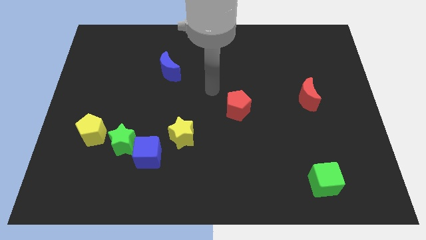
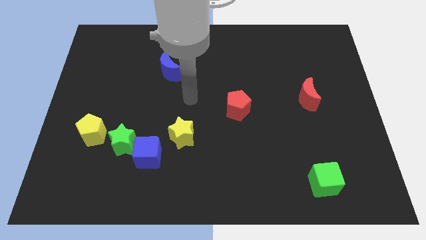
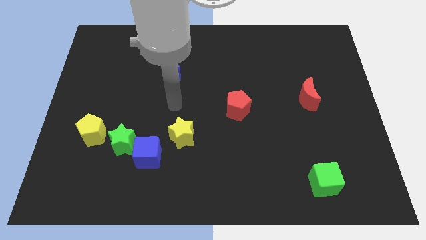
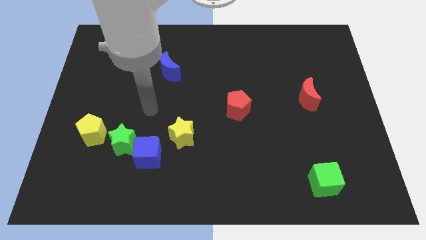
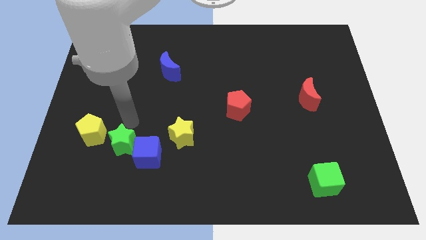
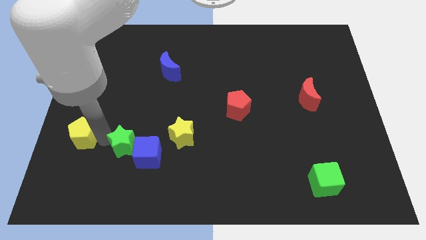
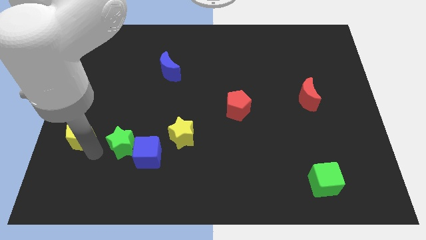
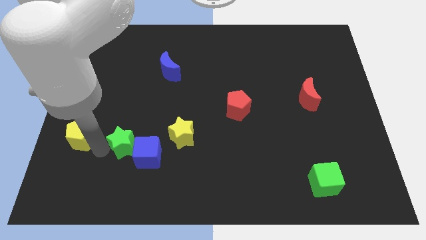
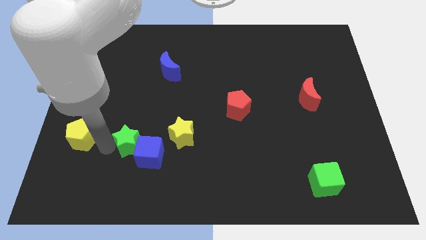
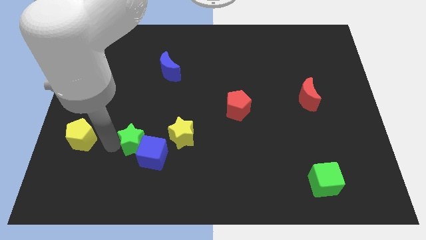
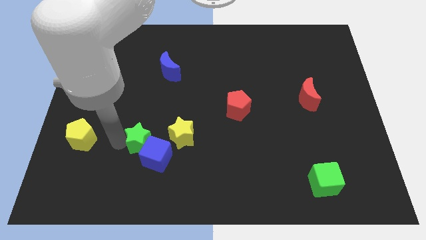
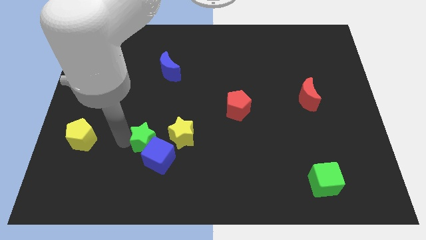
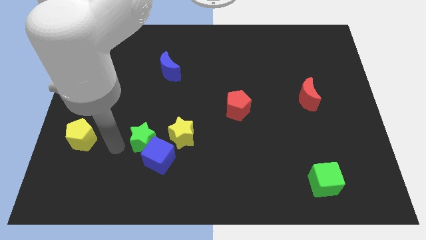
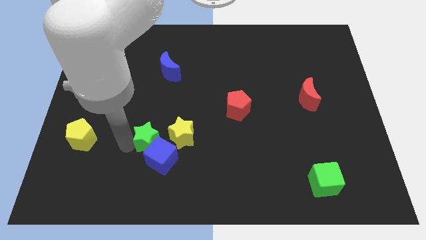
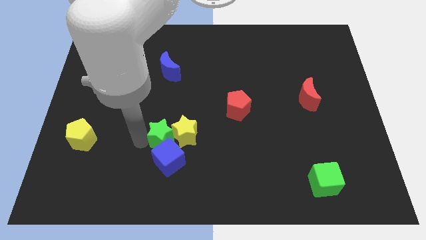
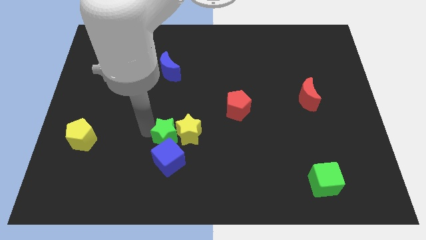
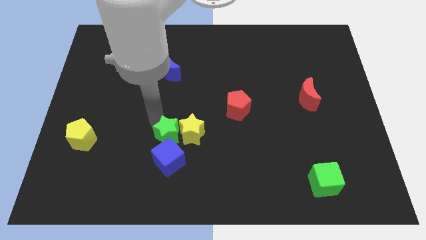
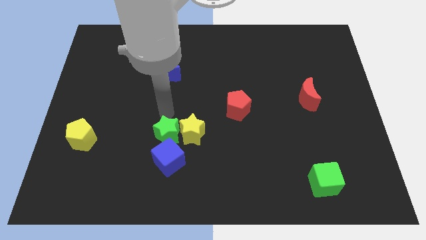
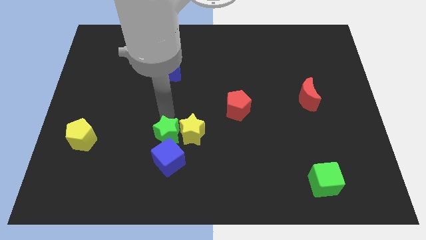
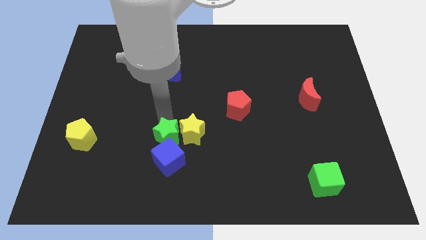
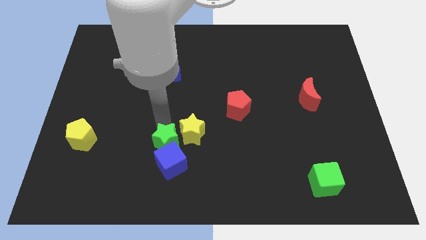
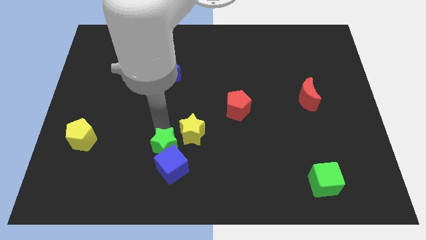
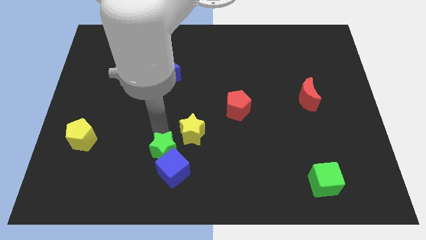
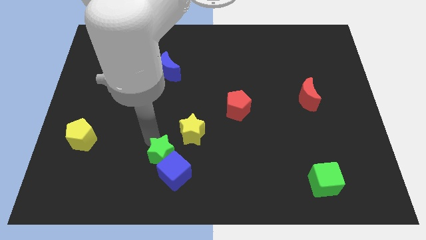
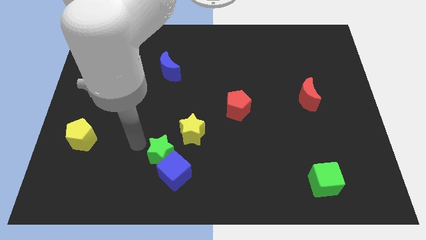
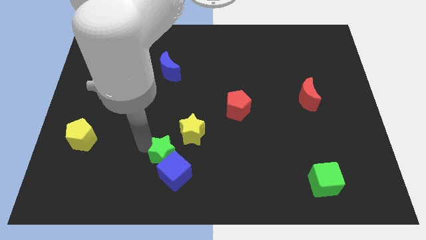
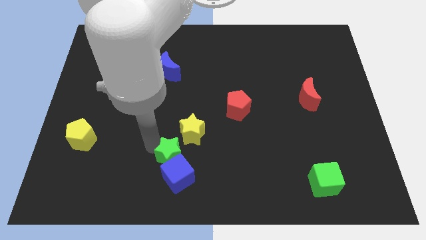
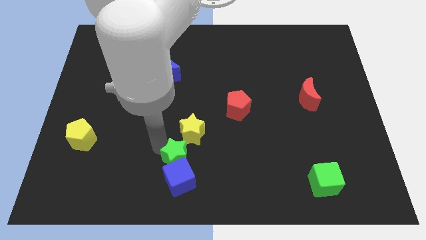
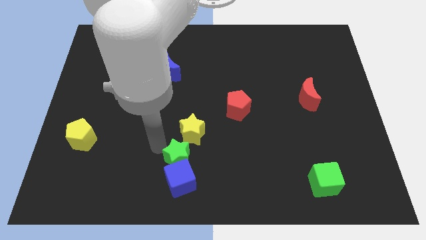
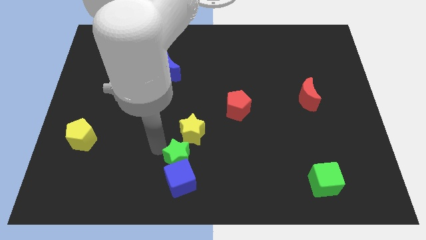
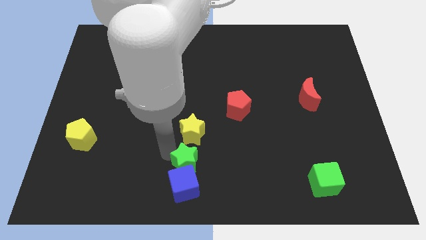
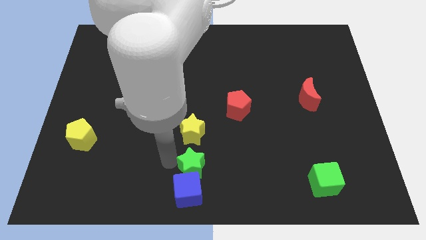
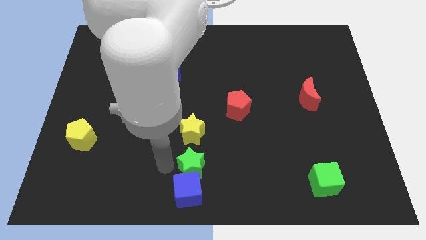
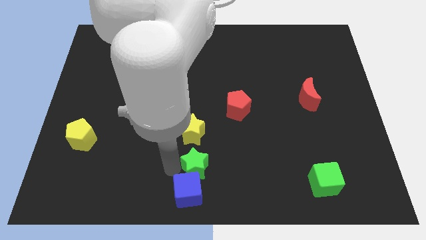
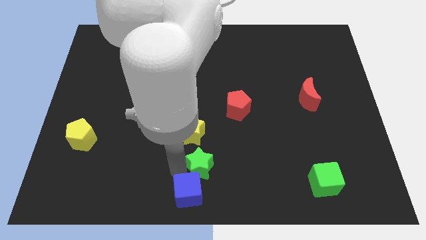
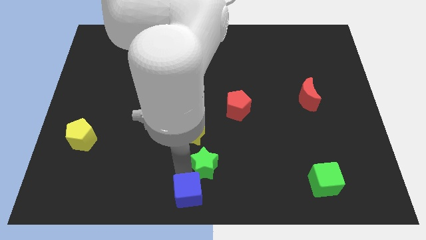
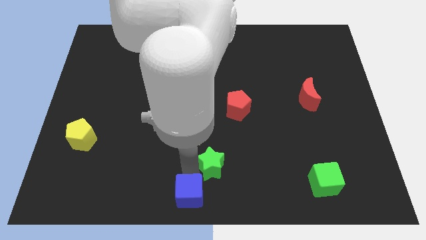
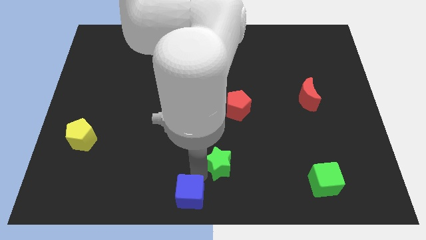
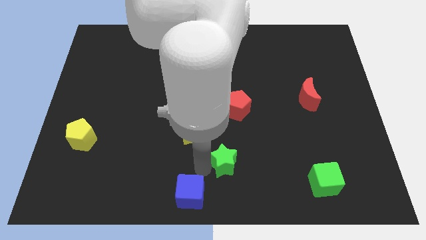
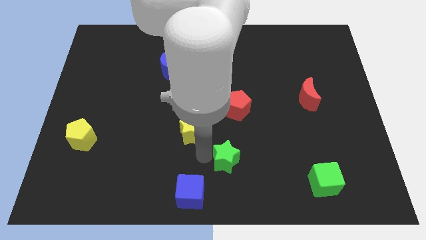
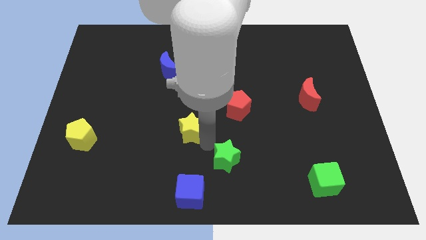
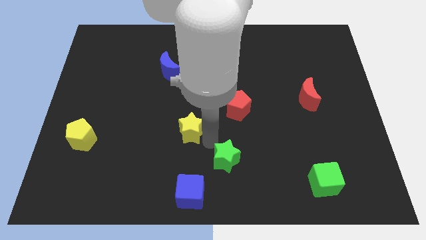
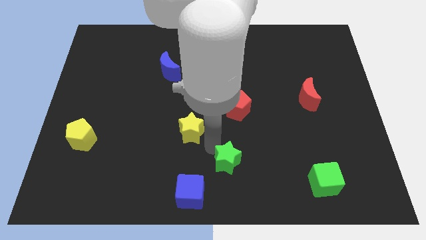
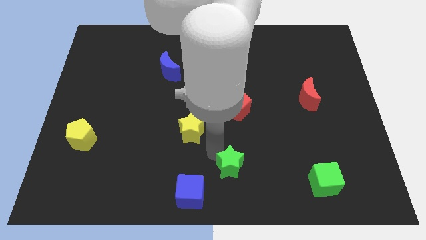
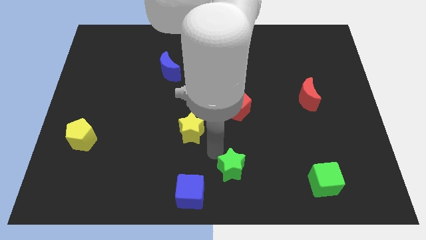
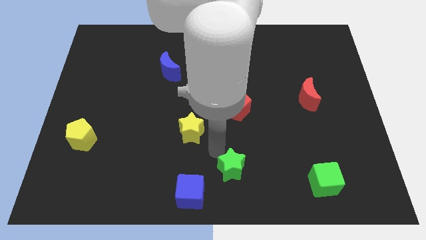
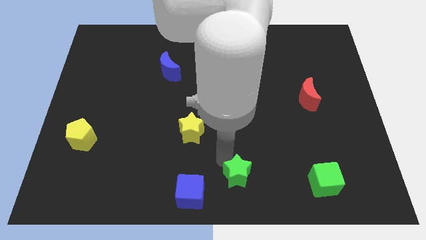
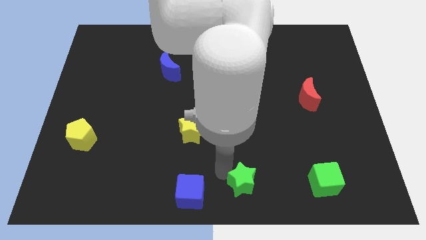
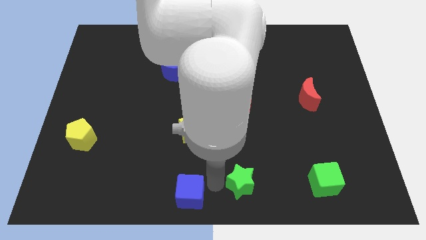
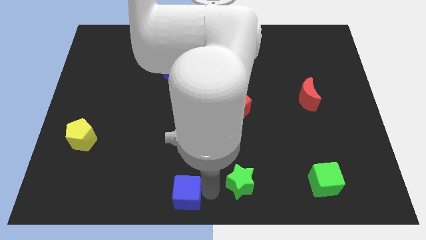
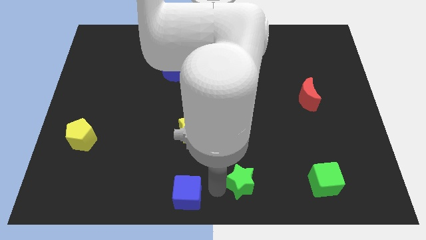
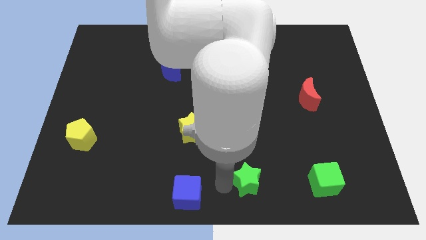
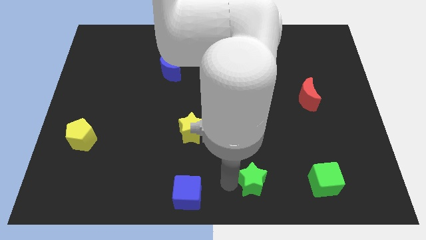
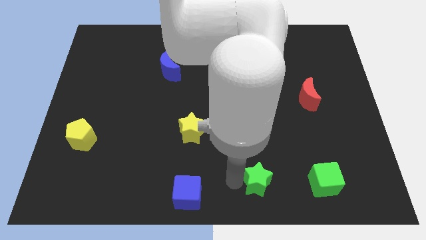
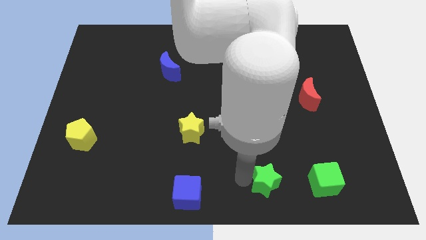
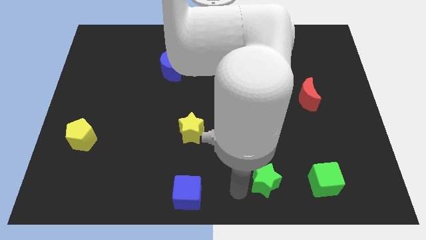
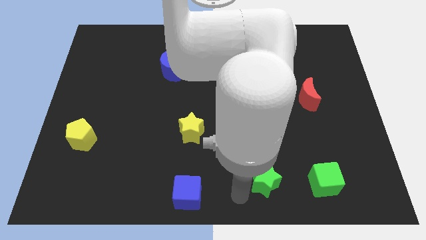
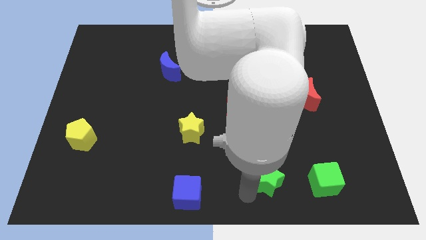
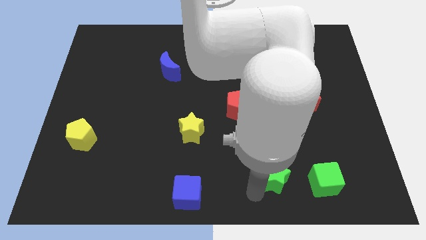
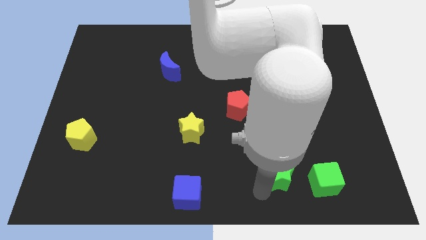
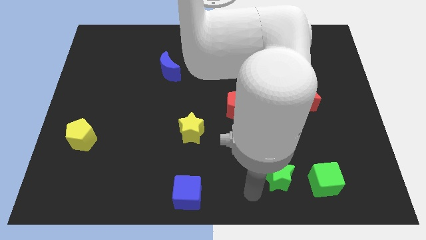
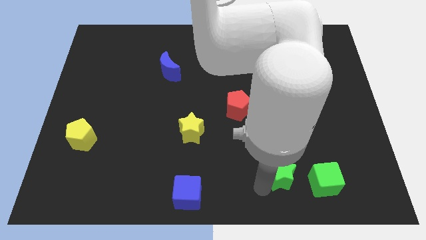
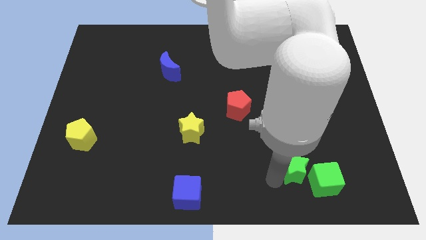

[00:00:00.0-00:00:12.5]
move the green star towards the green cube

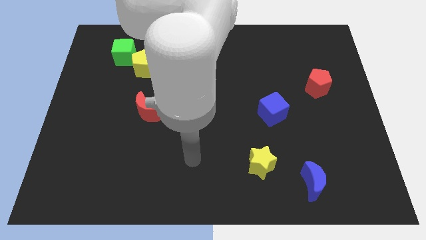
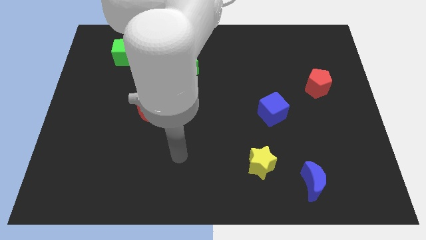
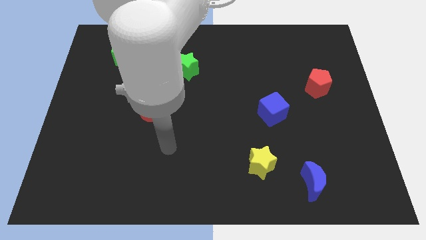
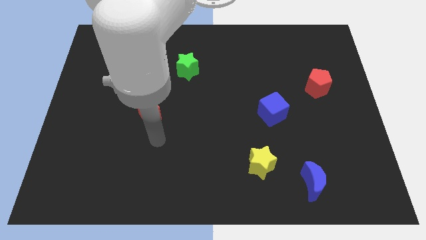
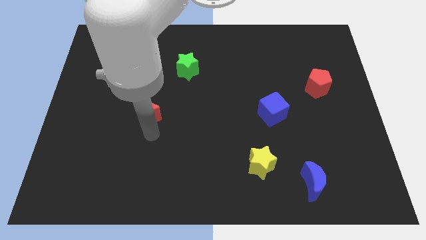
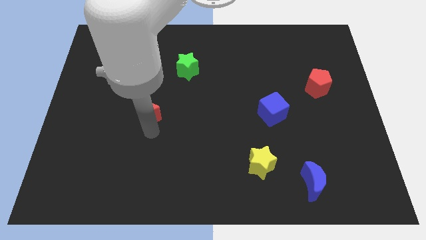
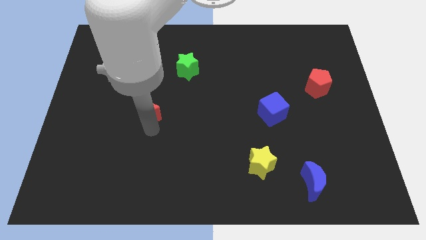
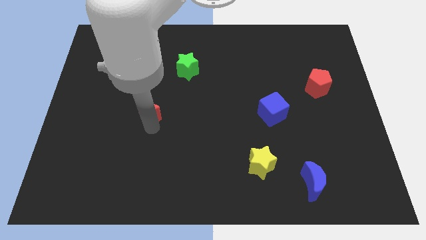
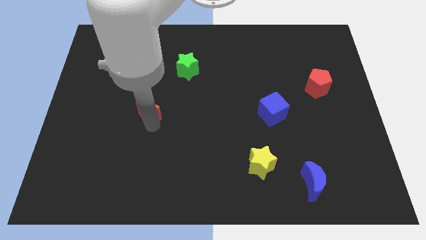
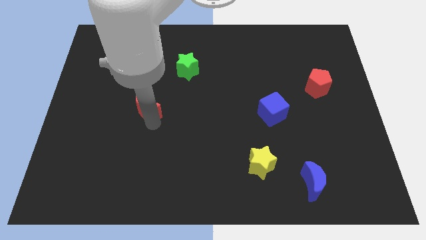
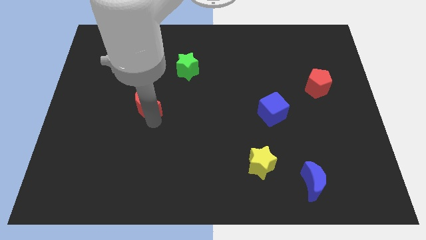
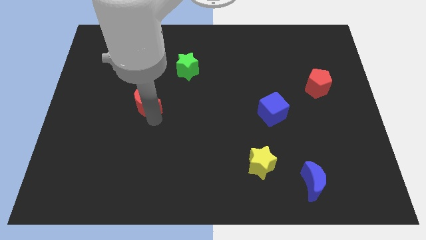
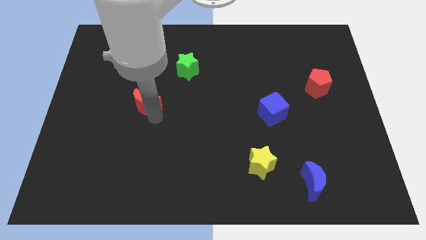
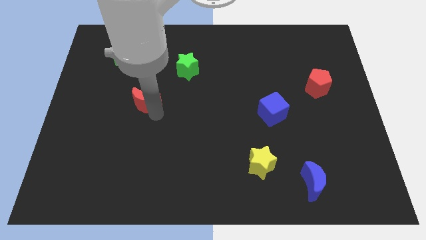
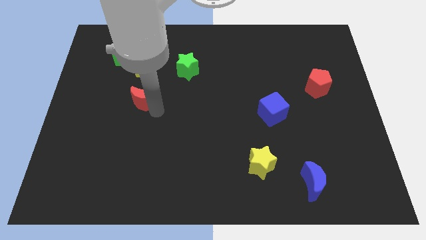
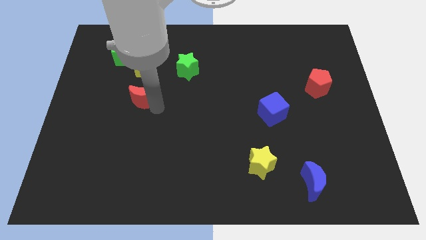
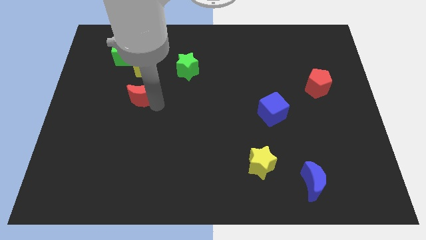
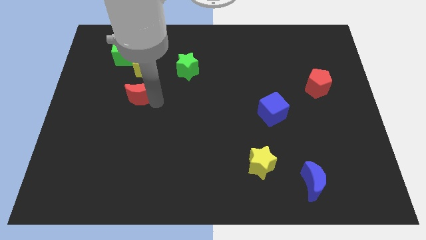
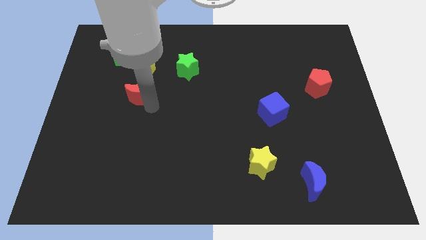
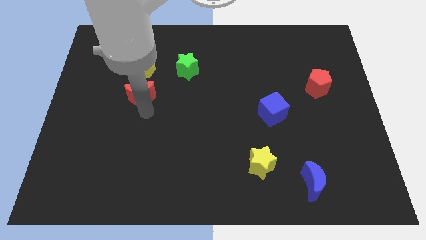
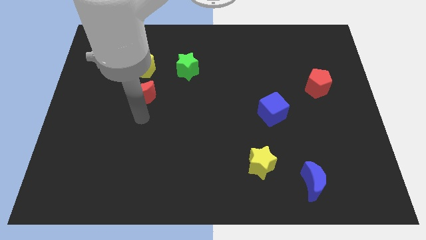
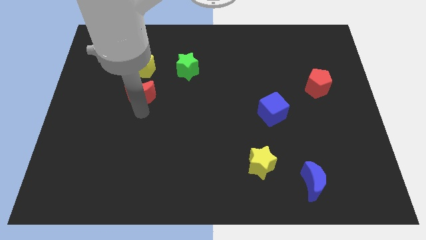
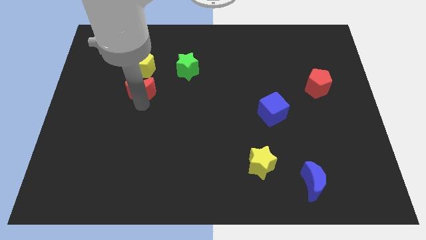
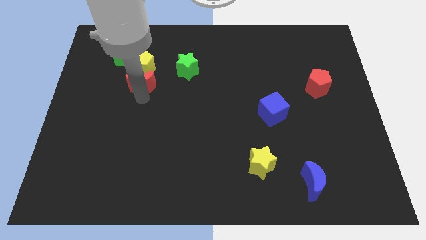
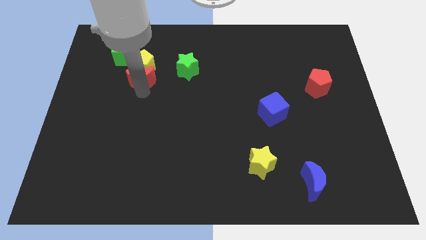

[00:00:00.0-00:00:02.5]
slide the red moon towards the yellow pentagon
